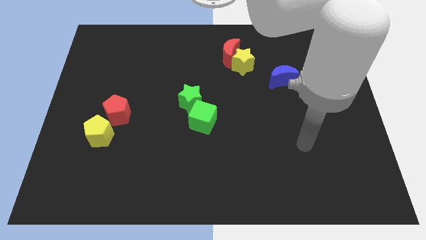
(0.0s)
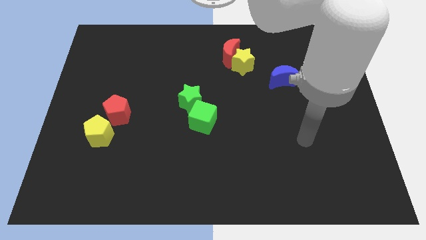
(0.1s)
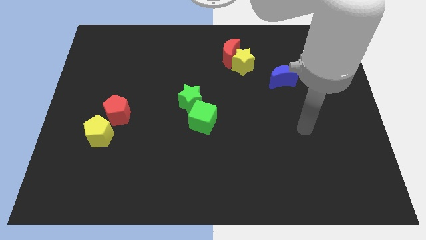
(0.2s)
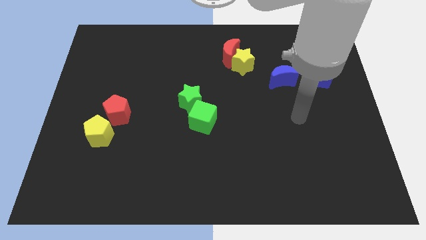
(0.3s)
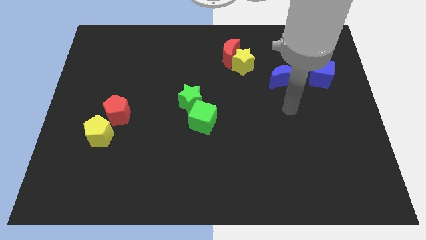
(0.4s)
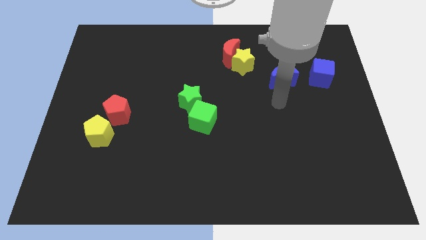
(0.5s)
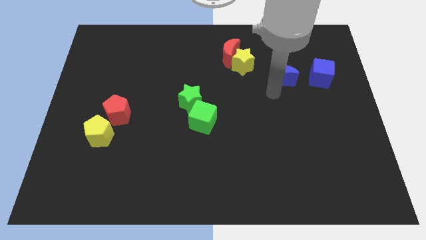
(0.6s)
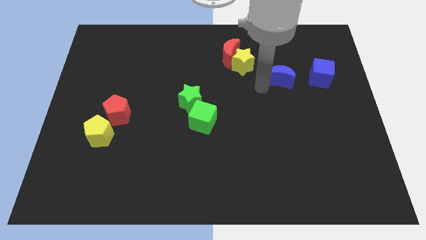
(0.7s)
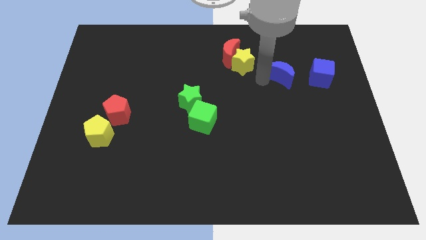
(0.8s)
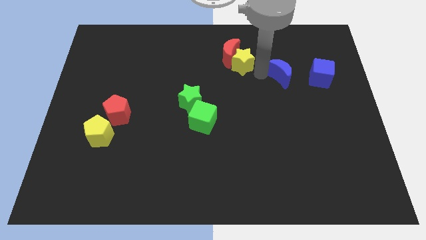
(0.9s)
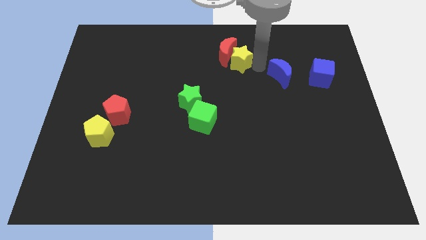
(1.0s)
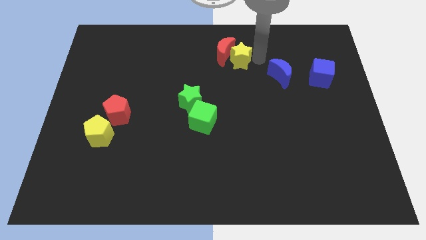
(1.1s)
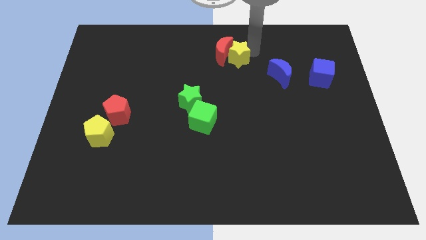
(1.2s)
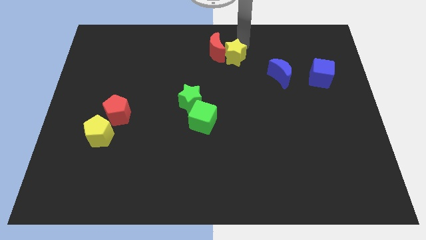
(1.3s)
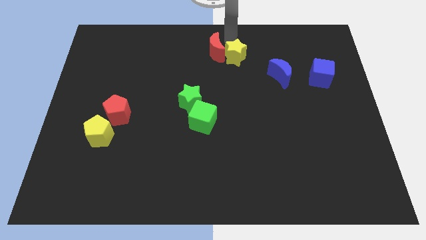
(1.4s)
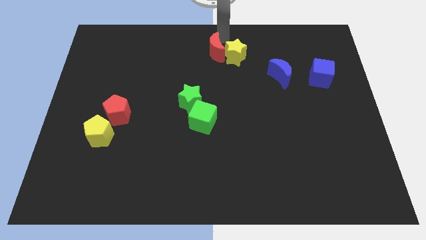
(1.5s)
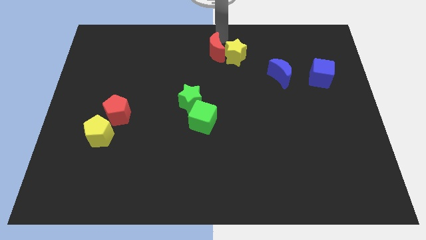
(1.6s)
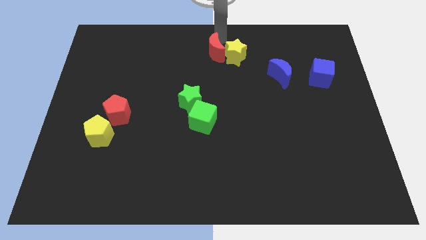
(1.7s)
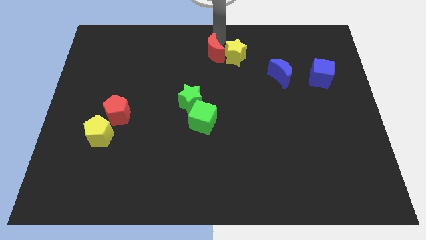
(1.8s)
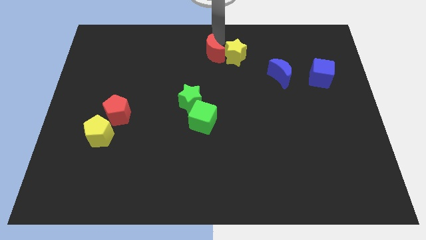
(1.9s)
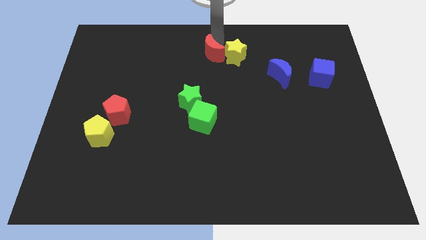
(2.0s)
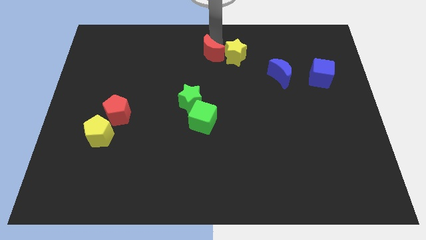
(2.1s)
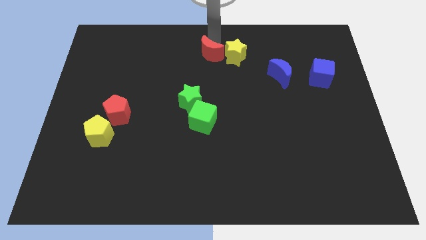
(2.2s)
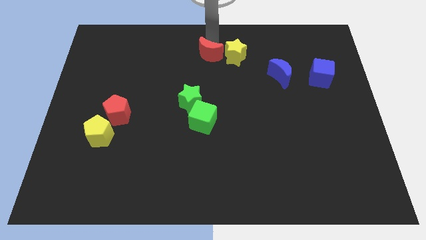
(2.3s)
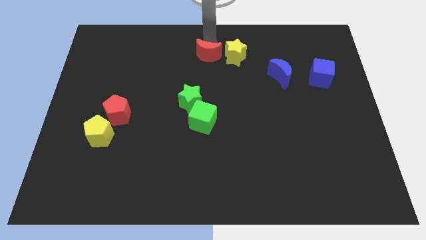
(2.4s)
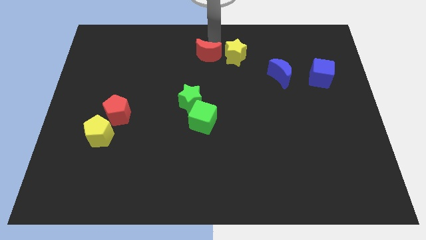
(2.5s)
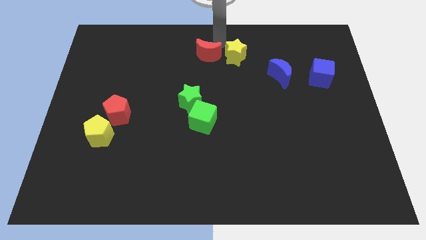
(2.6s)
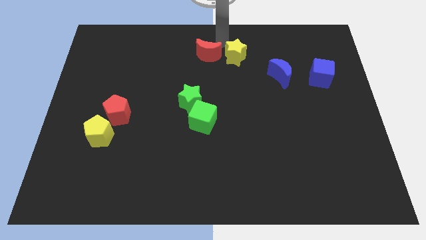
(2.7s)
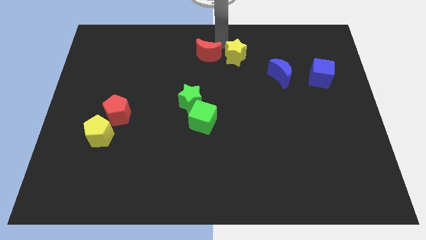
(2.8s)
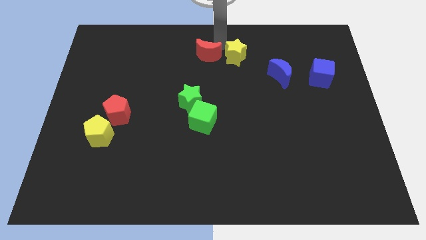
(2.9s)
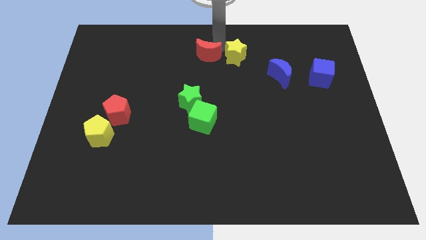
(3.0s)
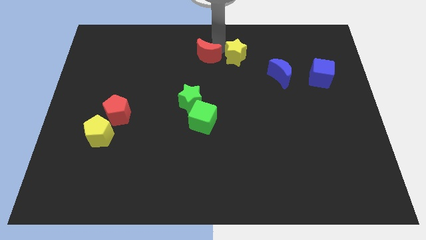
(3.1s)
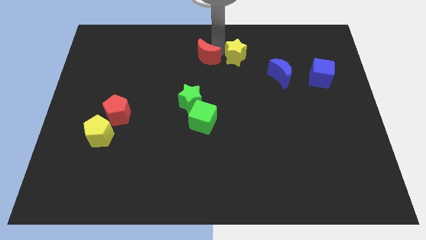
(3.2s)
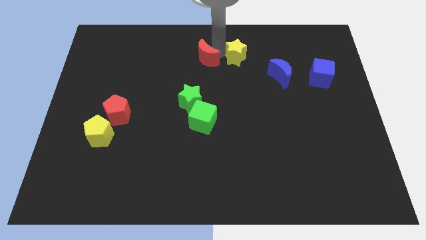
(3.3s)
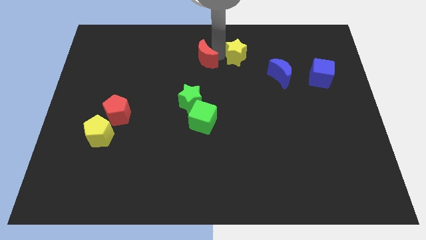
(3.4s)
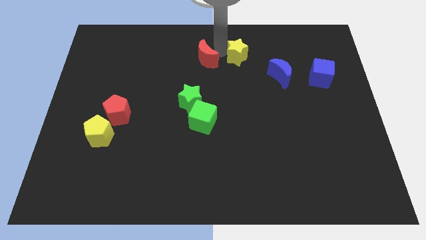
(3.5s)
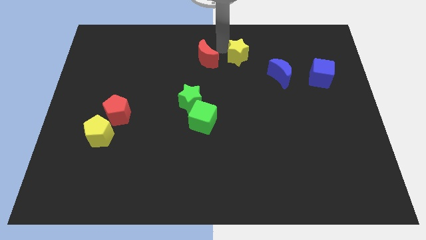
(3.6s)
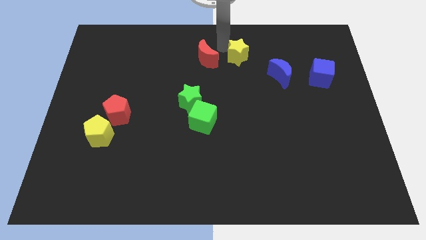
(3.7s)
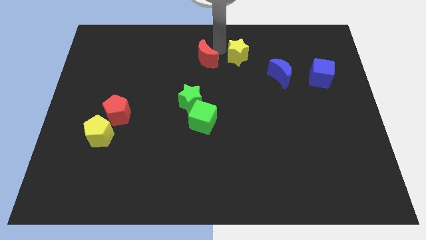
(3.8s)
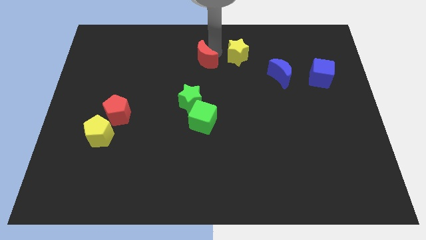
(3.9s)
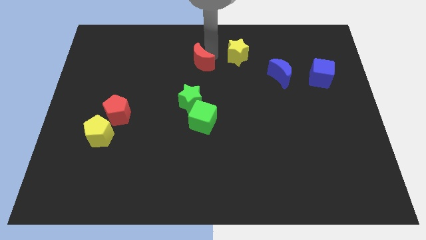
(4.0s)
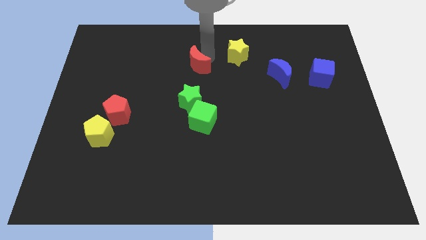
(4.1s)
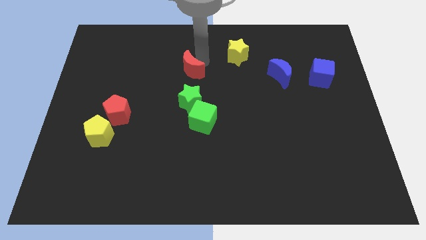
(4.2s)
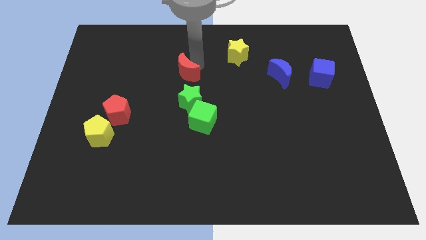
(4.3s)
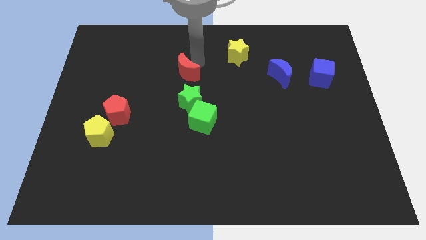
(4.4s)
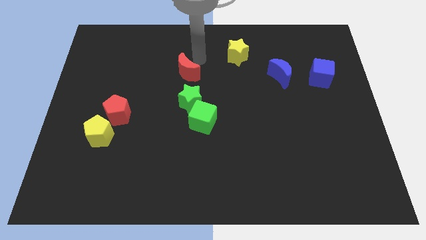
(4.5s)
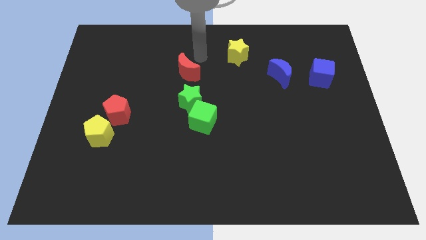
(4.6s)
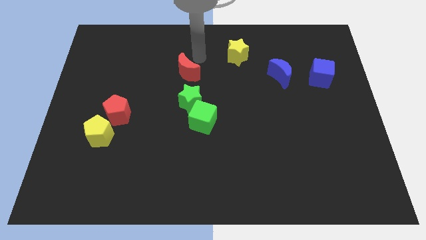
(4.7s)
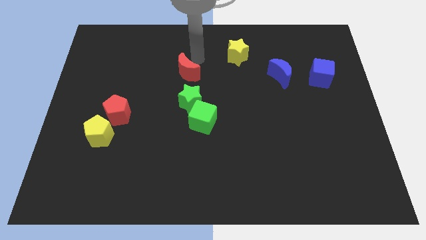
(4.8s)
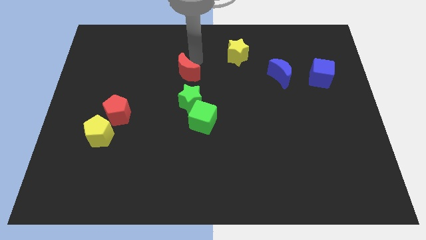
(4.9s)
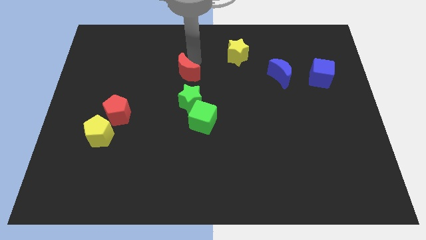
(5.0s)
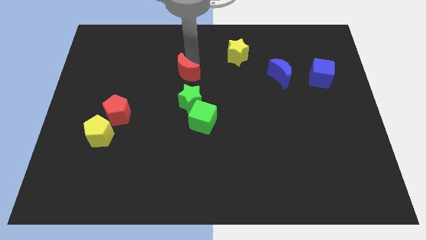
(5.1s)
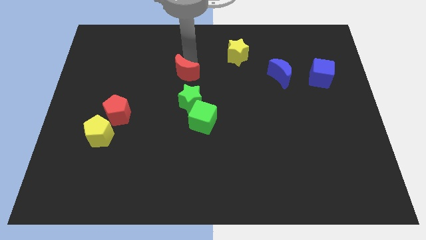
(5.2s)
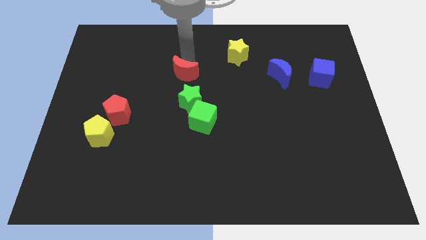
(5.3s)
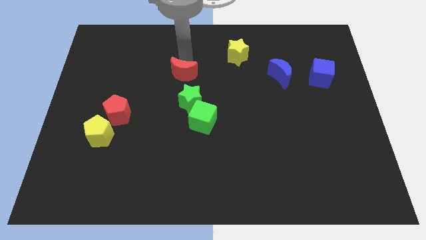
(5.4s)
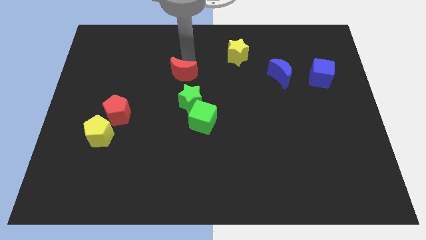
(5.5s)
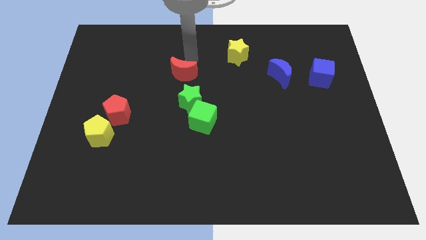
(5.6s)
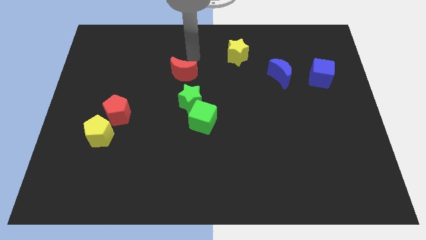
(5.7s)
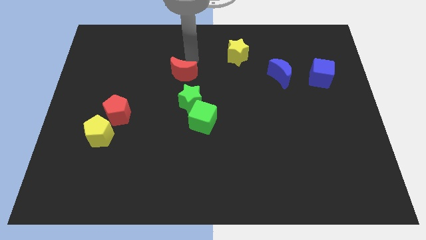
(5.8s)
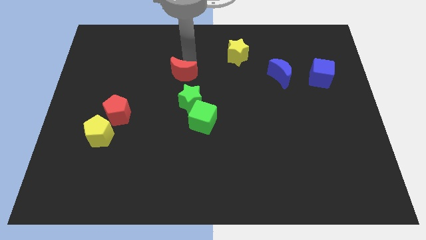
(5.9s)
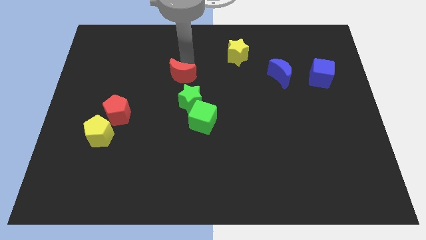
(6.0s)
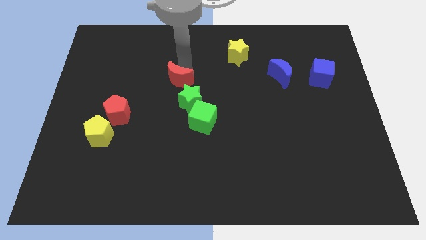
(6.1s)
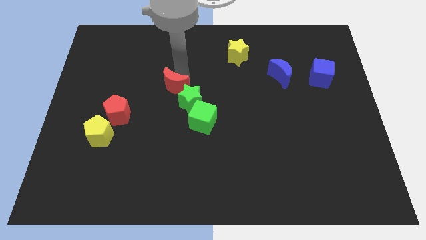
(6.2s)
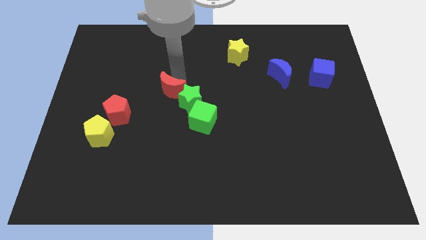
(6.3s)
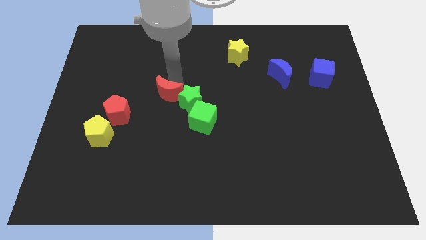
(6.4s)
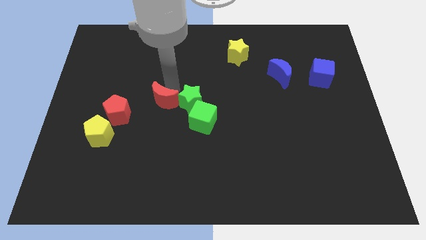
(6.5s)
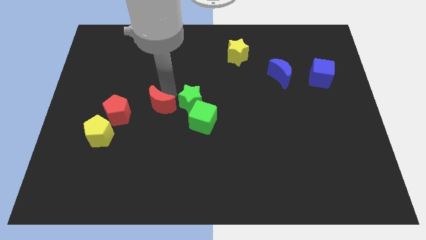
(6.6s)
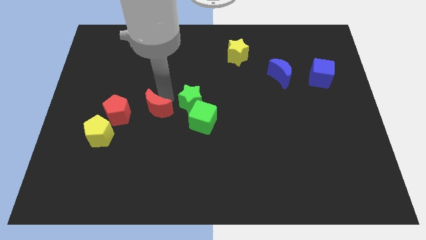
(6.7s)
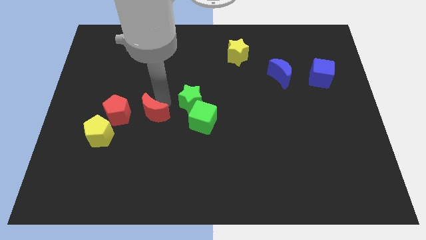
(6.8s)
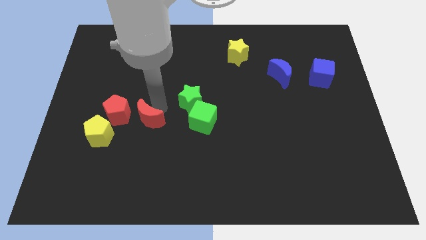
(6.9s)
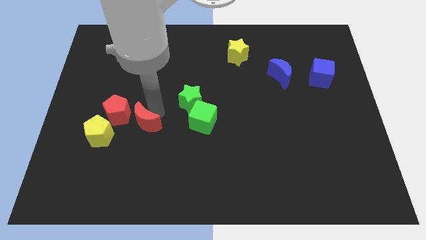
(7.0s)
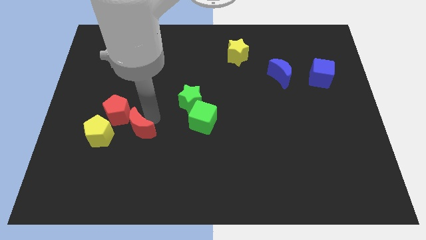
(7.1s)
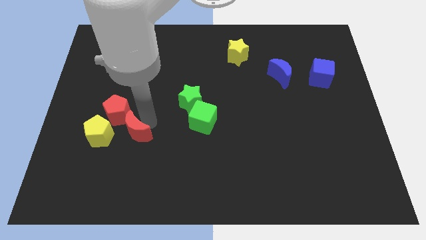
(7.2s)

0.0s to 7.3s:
push the red moon to the bottom of the red pentagon
